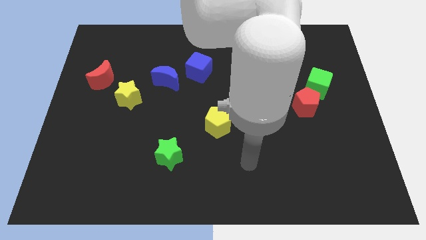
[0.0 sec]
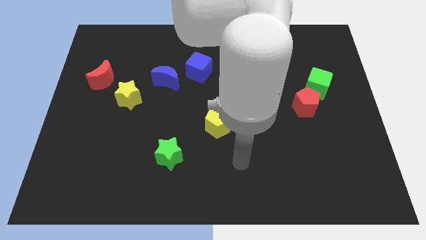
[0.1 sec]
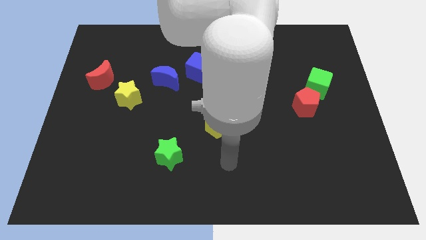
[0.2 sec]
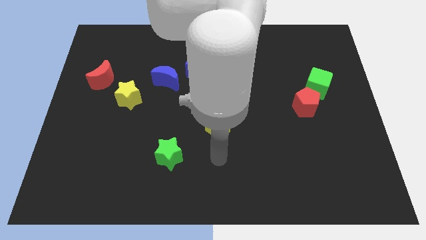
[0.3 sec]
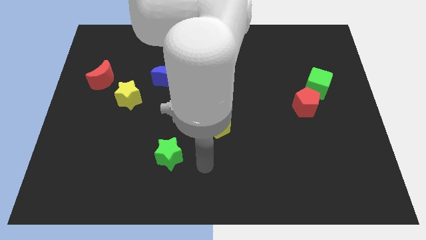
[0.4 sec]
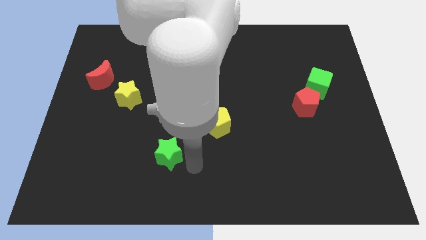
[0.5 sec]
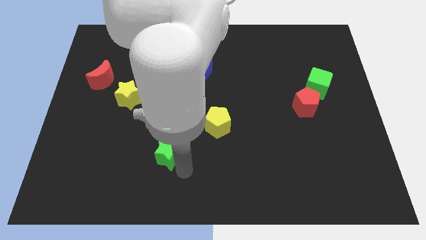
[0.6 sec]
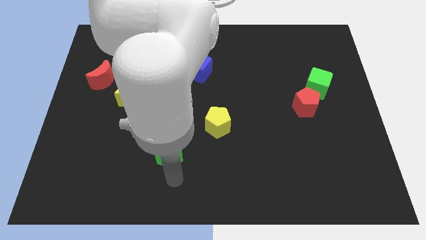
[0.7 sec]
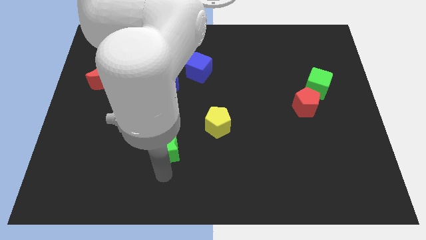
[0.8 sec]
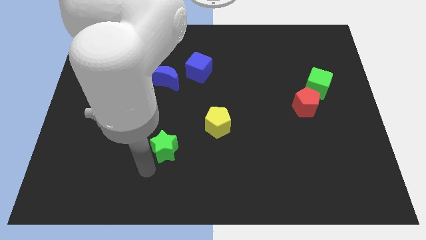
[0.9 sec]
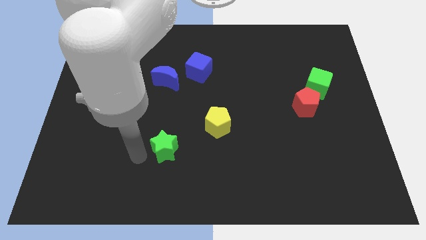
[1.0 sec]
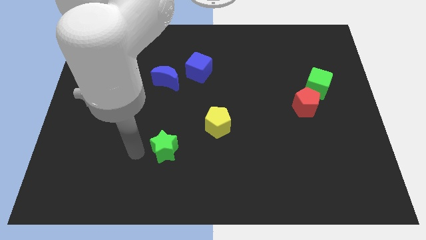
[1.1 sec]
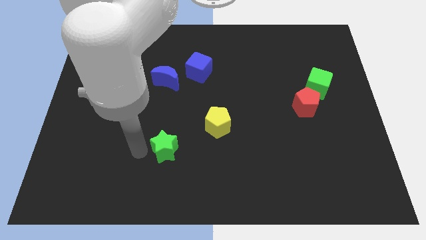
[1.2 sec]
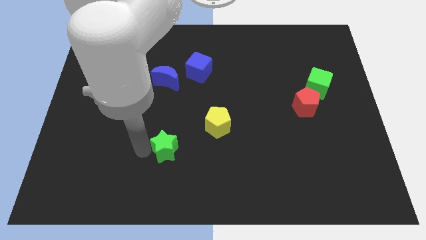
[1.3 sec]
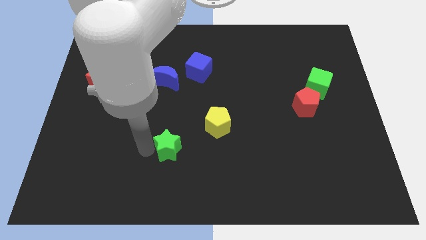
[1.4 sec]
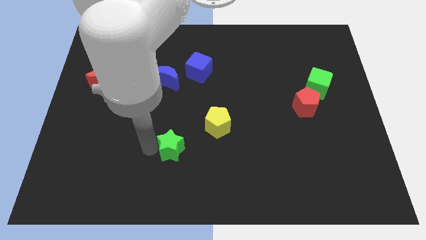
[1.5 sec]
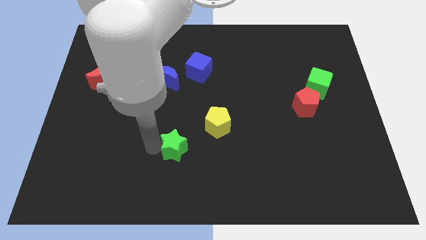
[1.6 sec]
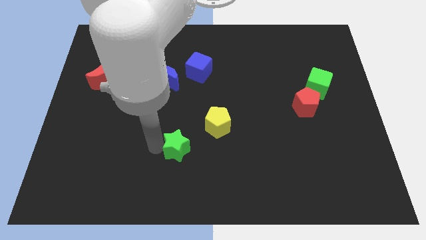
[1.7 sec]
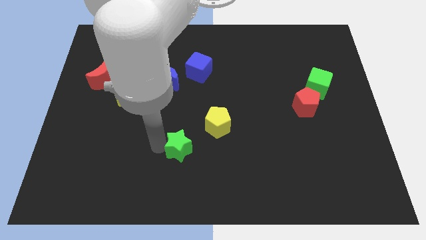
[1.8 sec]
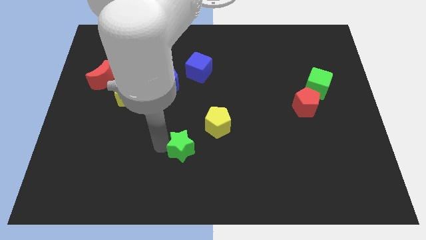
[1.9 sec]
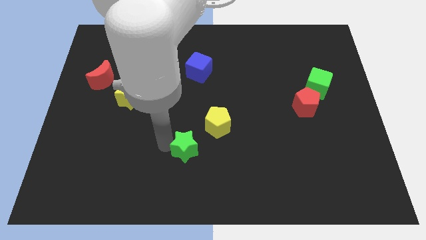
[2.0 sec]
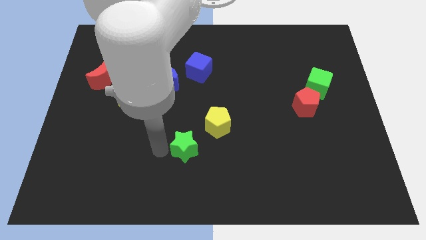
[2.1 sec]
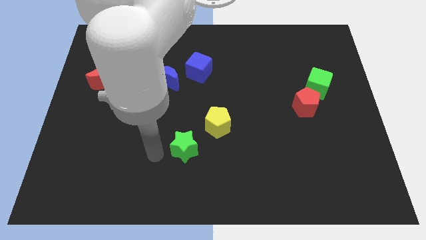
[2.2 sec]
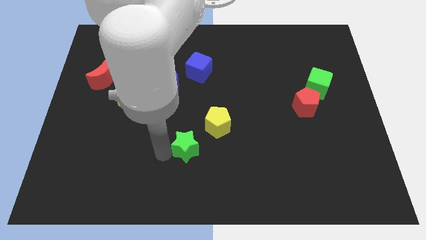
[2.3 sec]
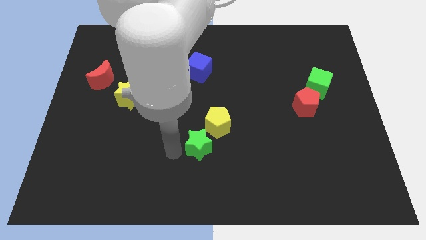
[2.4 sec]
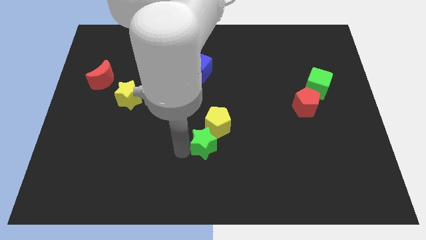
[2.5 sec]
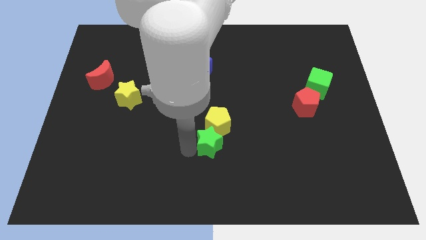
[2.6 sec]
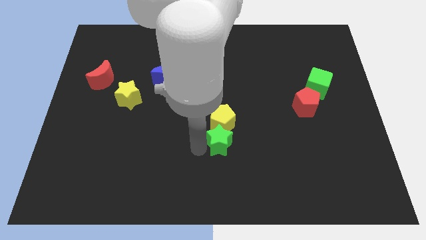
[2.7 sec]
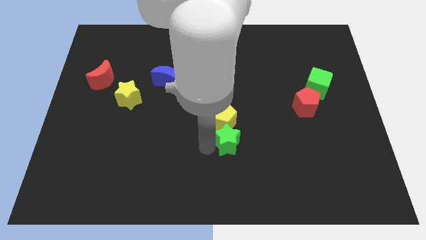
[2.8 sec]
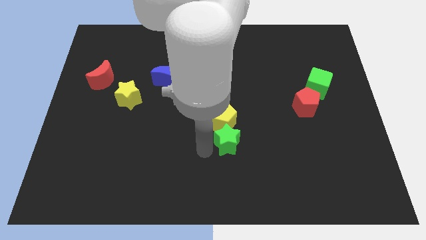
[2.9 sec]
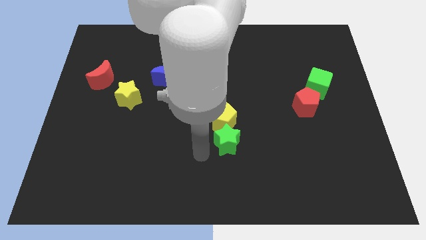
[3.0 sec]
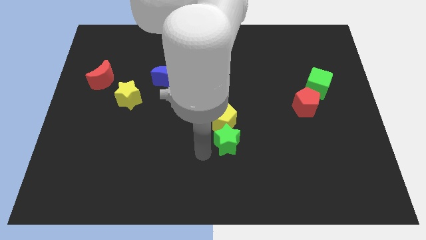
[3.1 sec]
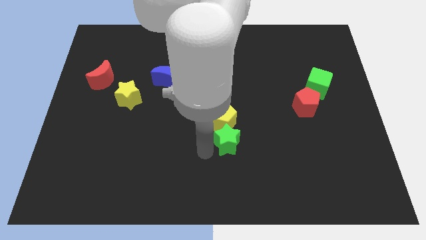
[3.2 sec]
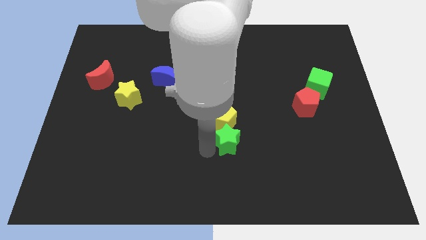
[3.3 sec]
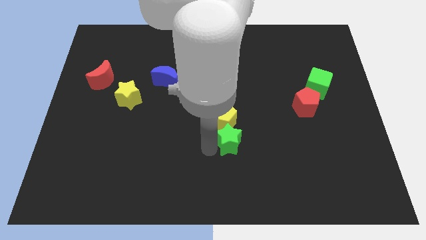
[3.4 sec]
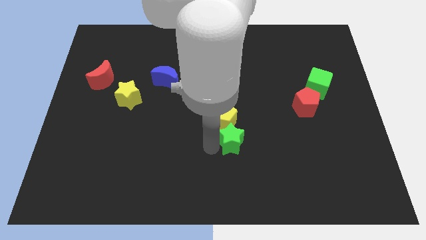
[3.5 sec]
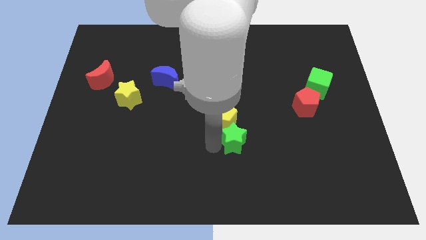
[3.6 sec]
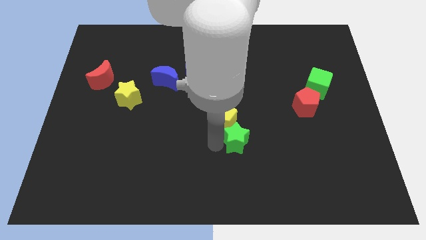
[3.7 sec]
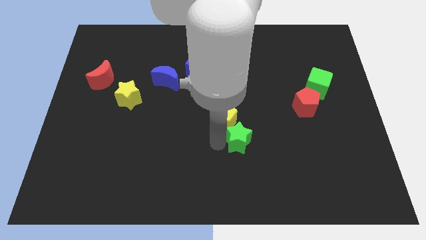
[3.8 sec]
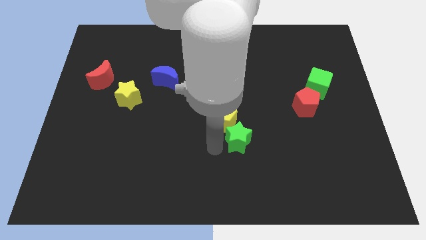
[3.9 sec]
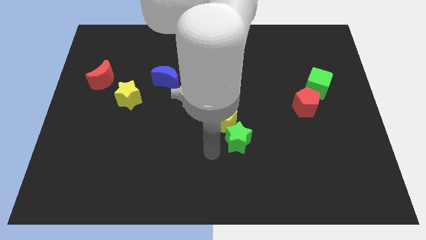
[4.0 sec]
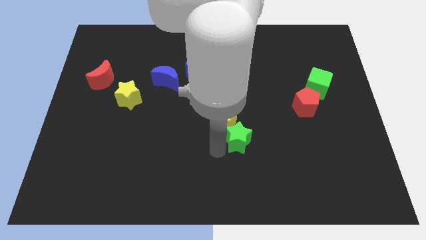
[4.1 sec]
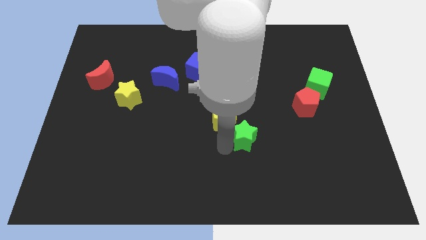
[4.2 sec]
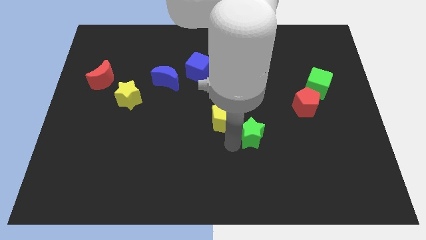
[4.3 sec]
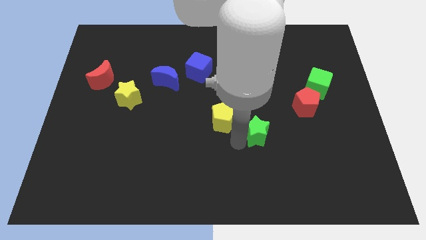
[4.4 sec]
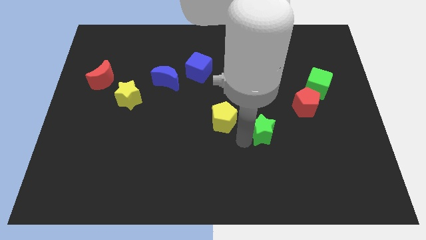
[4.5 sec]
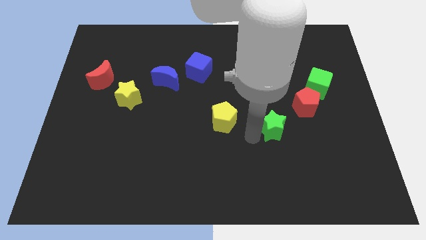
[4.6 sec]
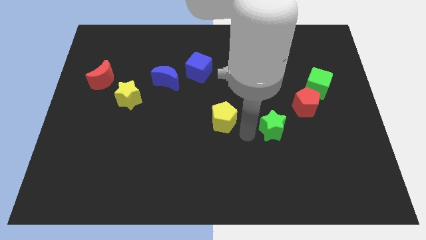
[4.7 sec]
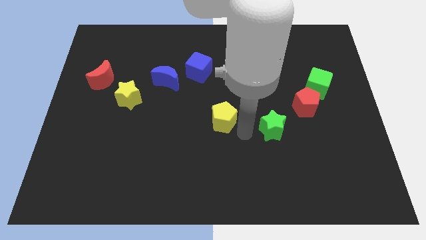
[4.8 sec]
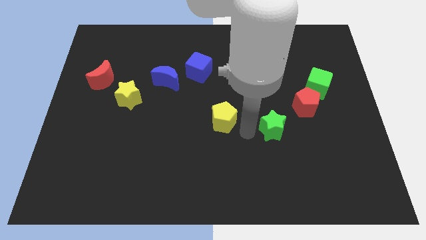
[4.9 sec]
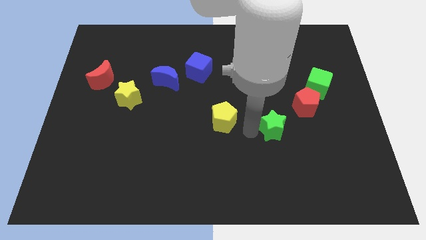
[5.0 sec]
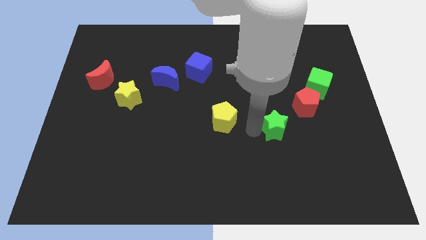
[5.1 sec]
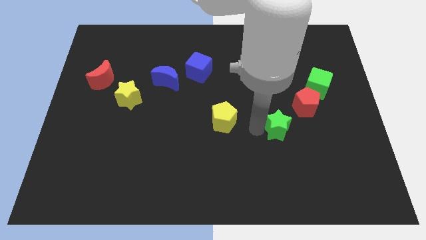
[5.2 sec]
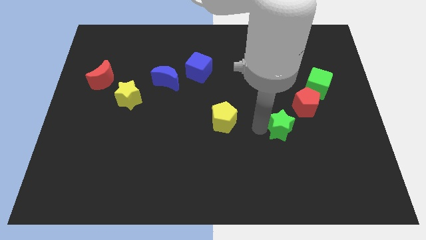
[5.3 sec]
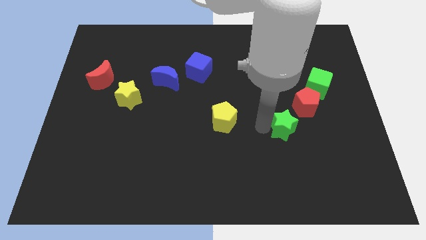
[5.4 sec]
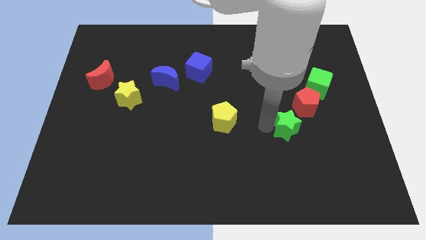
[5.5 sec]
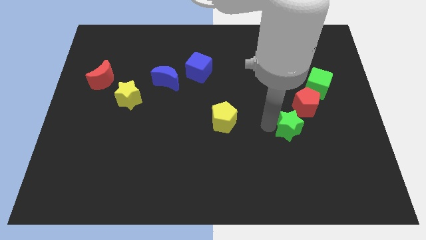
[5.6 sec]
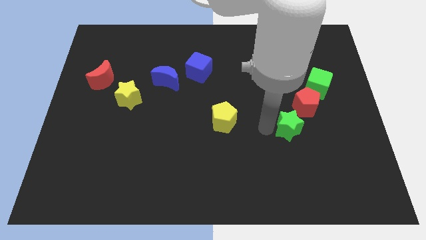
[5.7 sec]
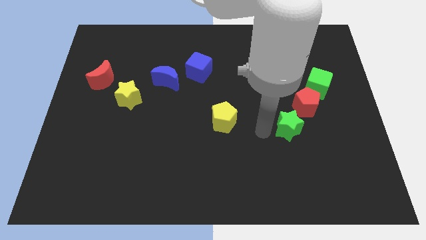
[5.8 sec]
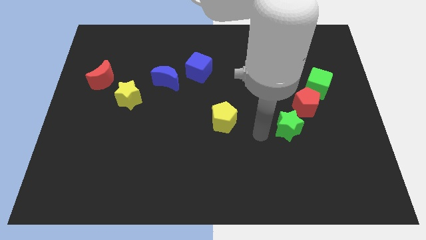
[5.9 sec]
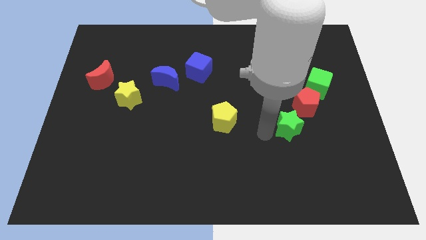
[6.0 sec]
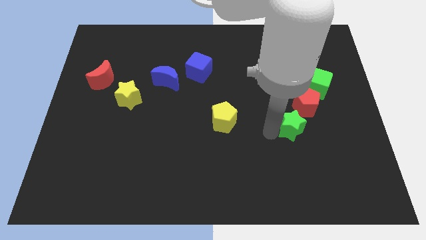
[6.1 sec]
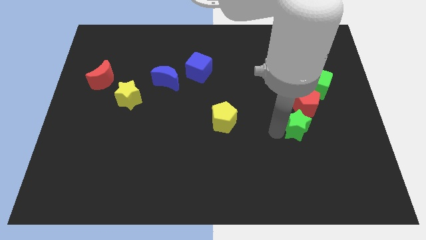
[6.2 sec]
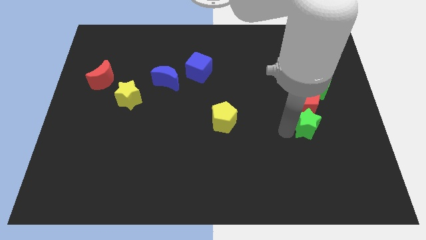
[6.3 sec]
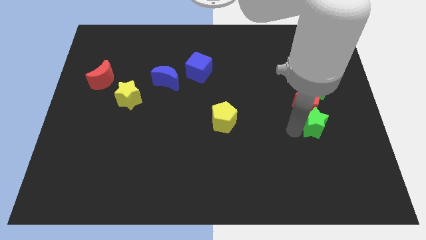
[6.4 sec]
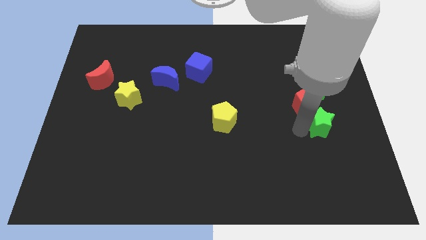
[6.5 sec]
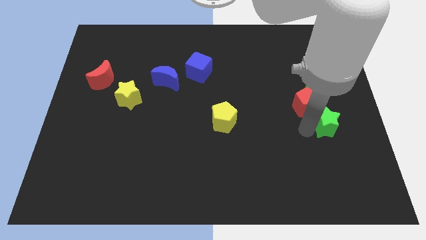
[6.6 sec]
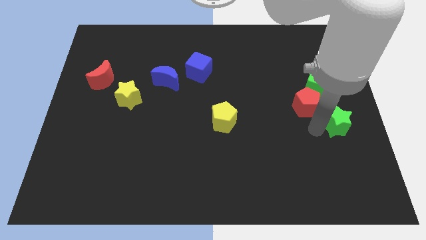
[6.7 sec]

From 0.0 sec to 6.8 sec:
slide the green star to the right side of the board

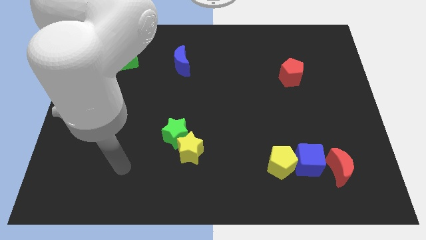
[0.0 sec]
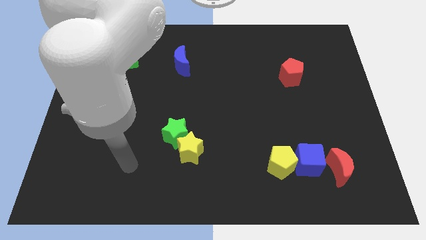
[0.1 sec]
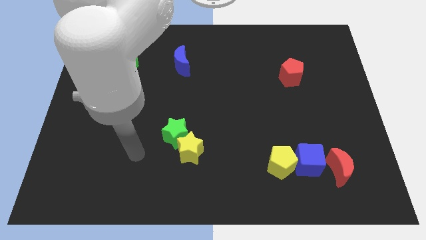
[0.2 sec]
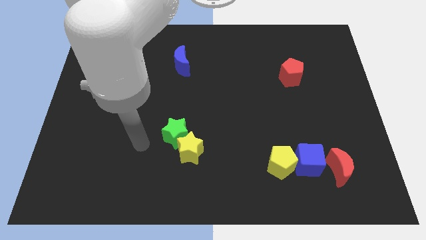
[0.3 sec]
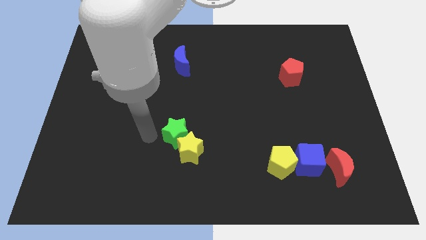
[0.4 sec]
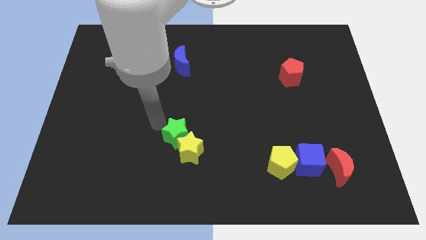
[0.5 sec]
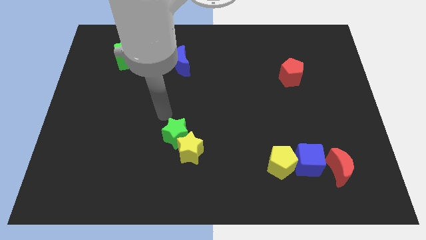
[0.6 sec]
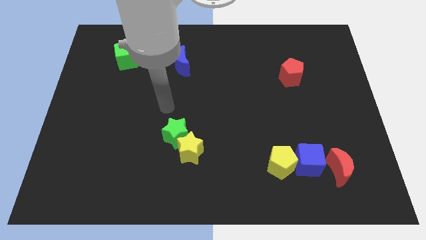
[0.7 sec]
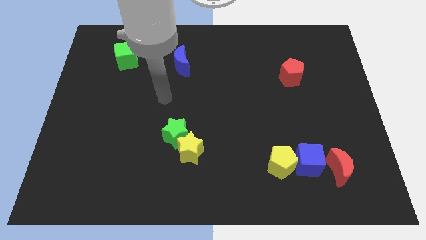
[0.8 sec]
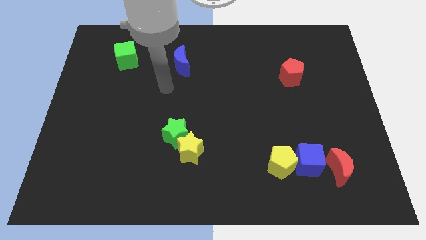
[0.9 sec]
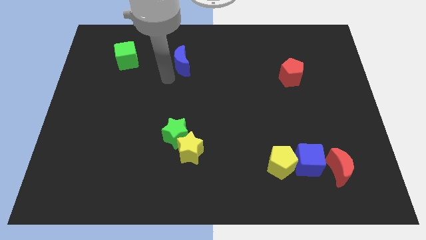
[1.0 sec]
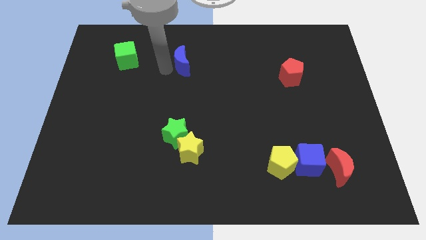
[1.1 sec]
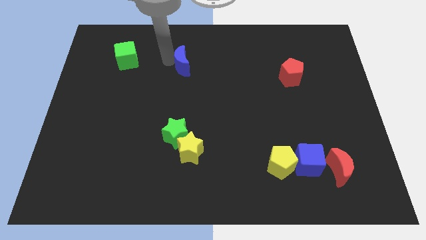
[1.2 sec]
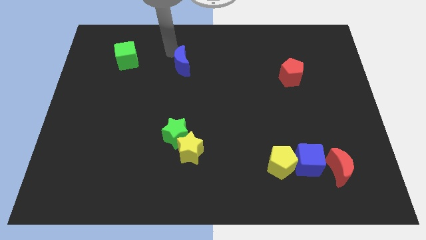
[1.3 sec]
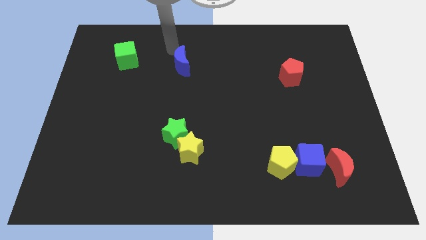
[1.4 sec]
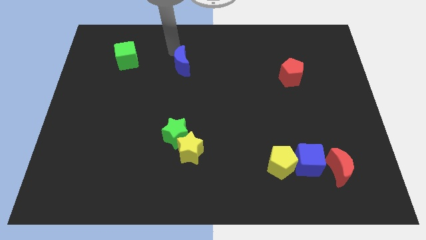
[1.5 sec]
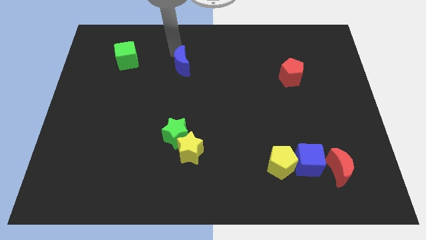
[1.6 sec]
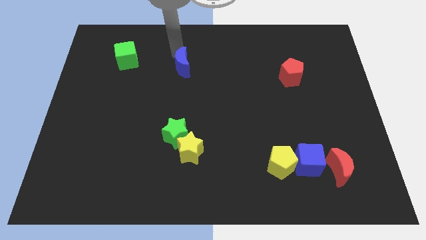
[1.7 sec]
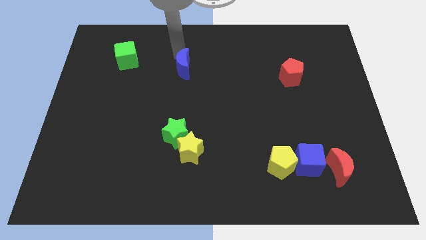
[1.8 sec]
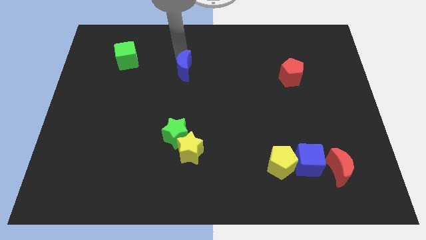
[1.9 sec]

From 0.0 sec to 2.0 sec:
put the blue moon to the middle
